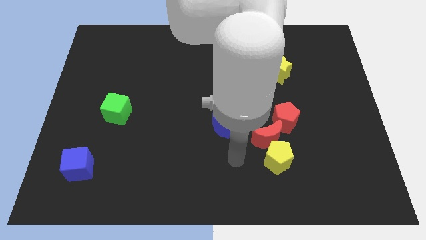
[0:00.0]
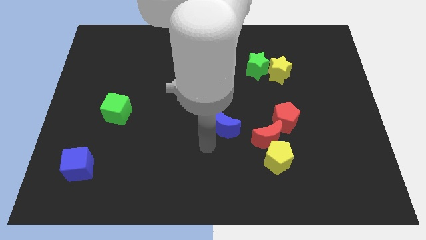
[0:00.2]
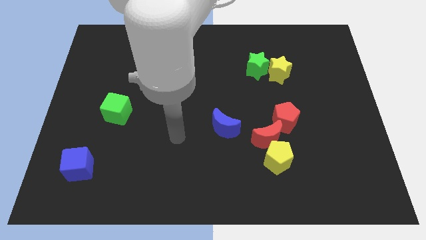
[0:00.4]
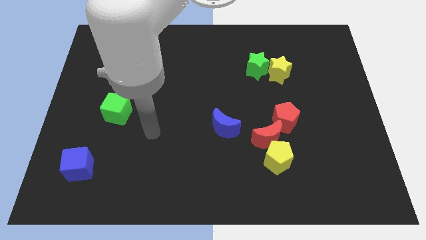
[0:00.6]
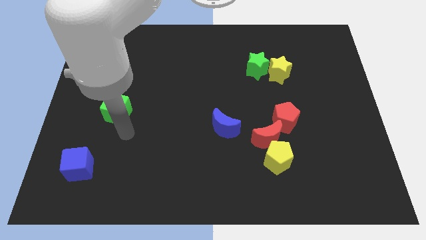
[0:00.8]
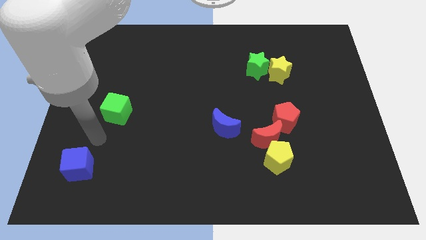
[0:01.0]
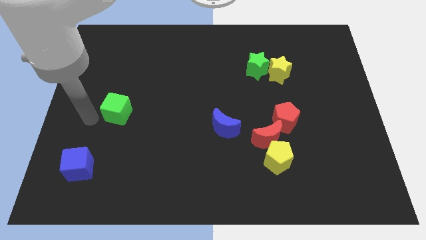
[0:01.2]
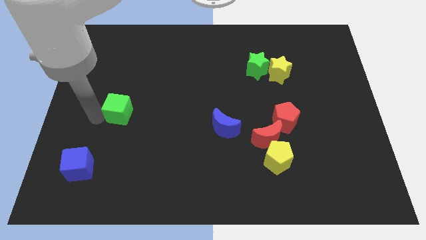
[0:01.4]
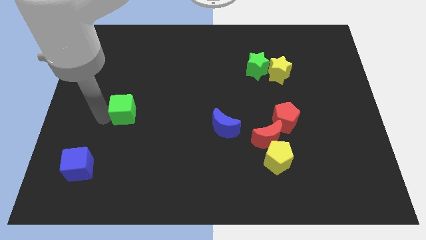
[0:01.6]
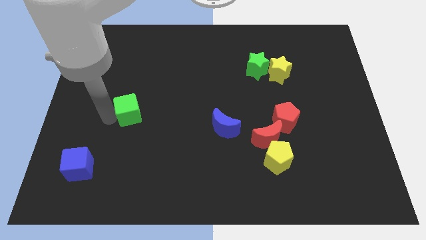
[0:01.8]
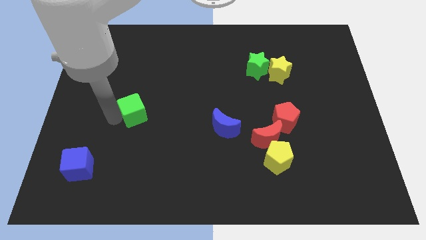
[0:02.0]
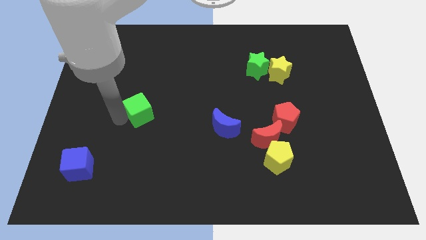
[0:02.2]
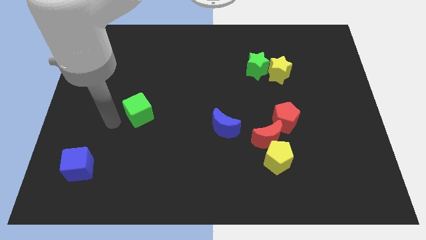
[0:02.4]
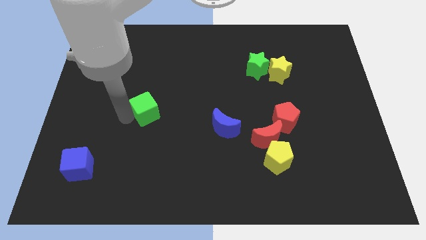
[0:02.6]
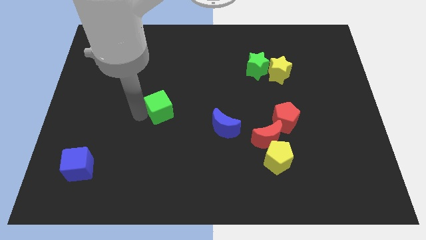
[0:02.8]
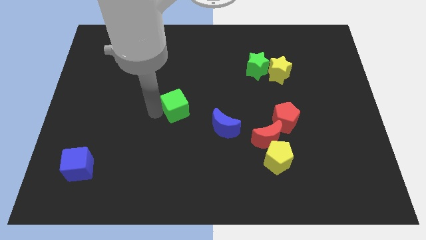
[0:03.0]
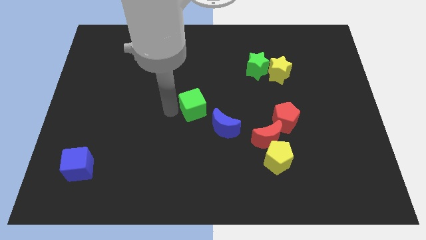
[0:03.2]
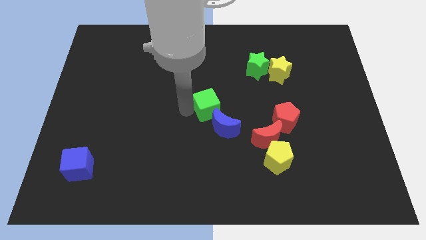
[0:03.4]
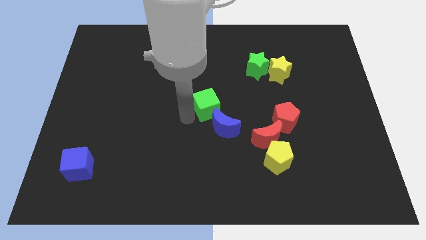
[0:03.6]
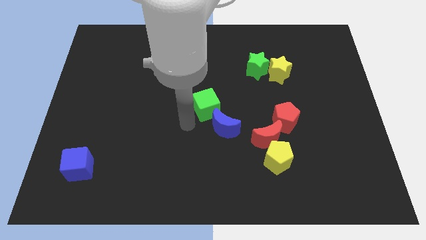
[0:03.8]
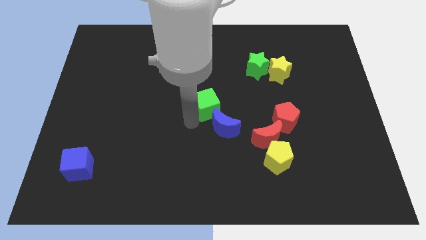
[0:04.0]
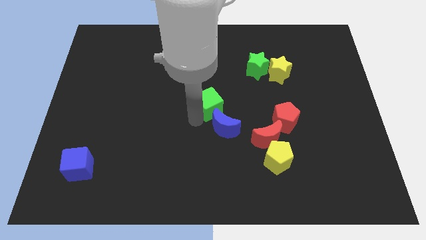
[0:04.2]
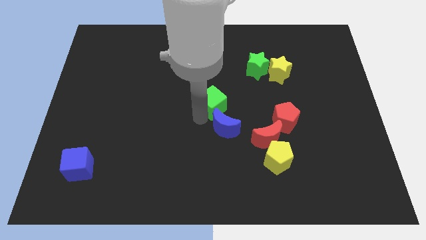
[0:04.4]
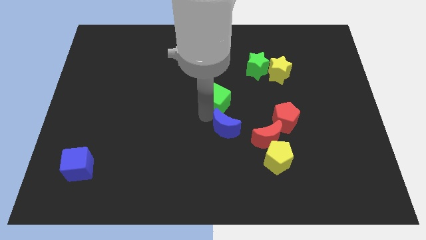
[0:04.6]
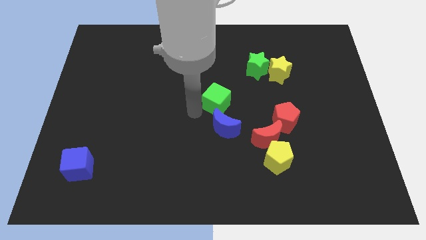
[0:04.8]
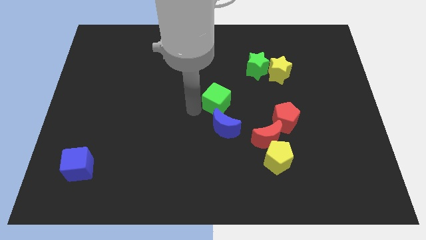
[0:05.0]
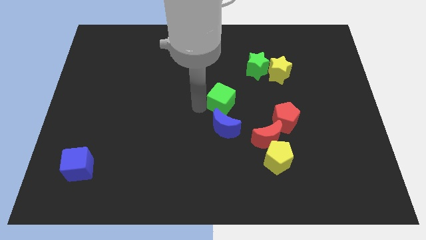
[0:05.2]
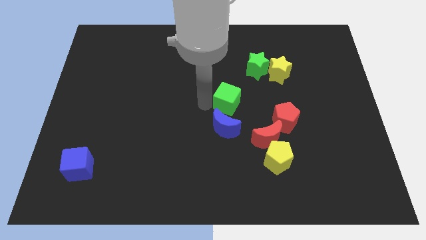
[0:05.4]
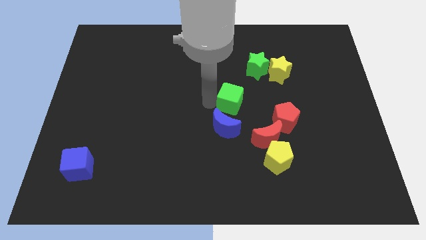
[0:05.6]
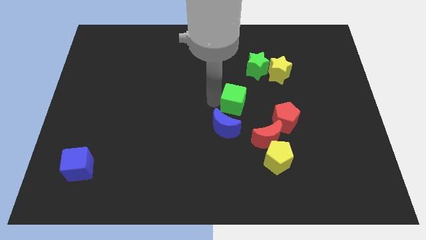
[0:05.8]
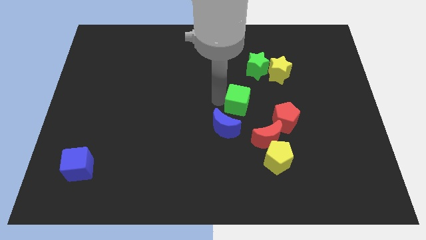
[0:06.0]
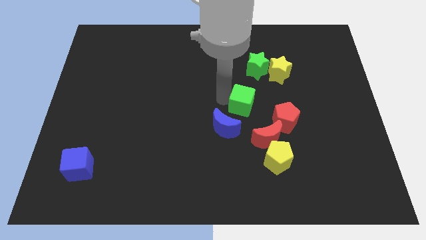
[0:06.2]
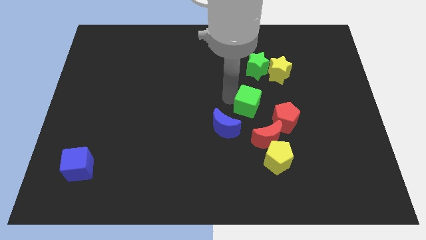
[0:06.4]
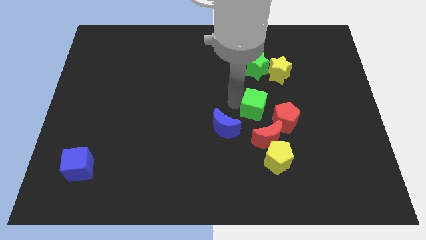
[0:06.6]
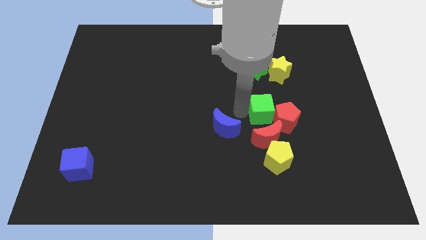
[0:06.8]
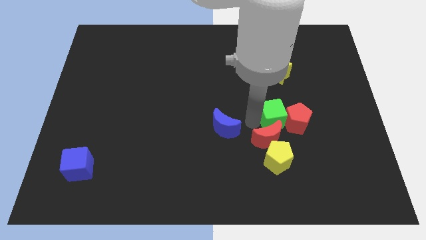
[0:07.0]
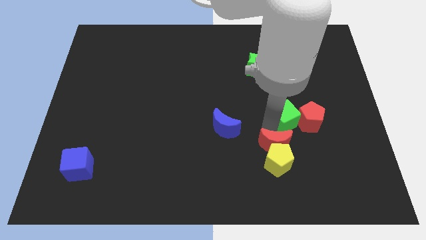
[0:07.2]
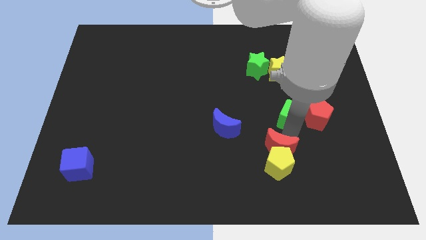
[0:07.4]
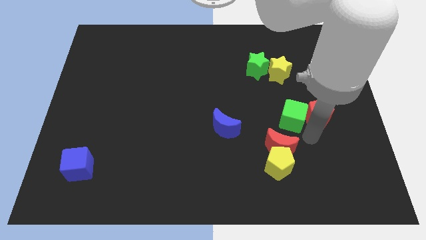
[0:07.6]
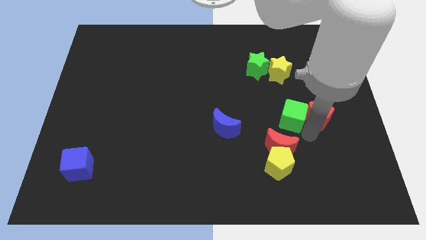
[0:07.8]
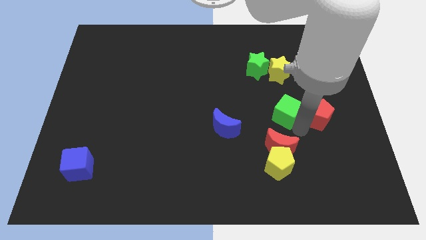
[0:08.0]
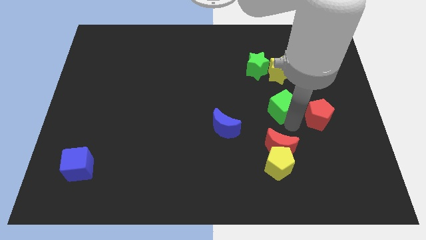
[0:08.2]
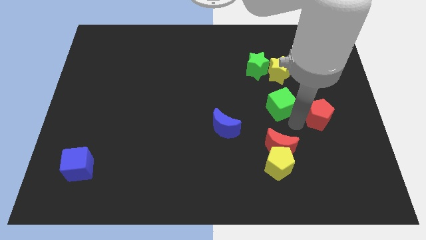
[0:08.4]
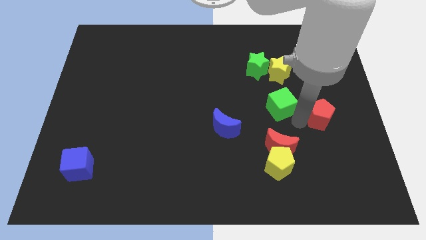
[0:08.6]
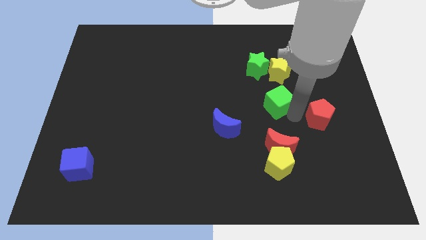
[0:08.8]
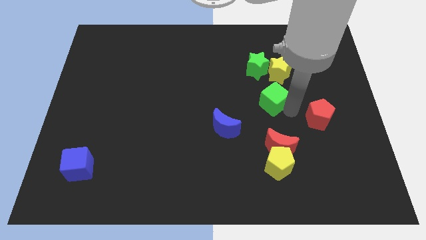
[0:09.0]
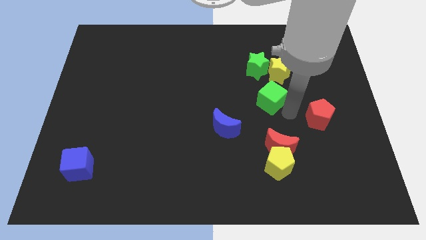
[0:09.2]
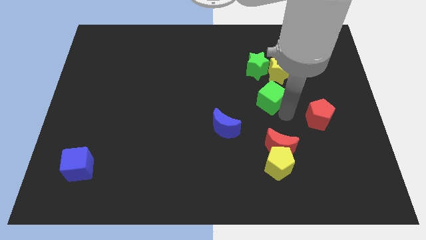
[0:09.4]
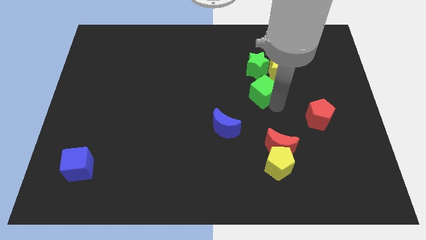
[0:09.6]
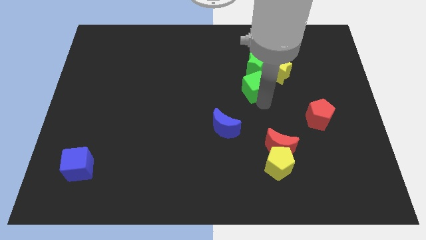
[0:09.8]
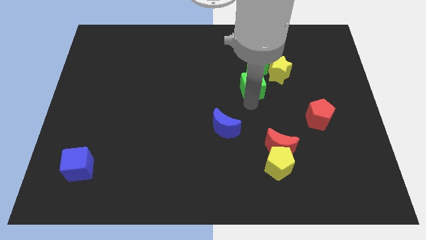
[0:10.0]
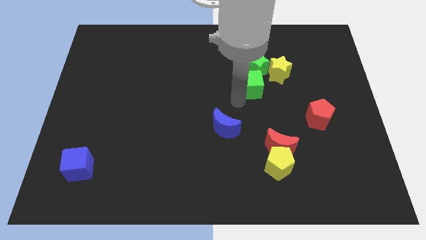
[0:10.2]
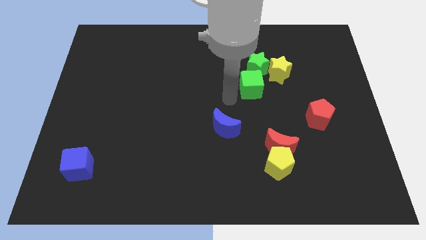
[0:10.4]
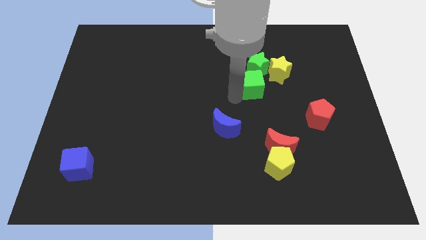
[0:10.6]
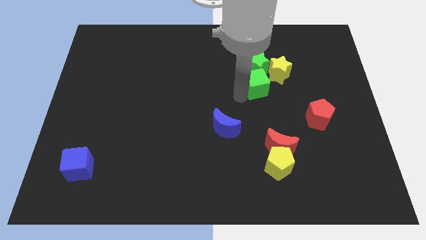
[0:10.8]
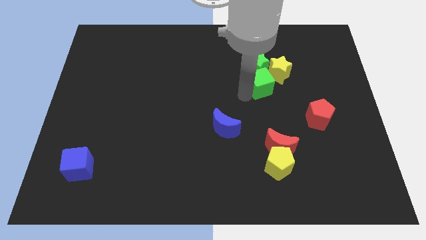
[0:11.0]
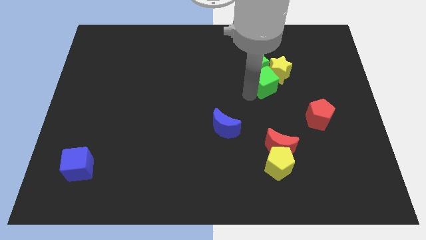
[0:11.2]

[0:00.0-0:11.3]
move the green cube close to the yellow star

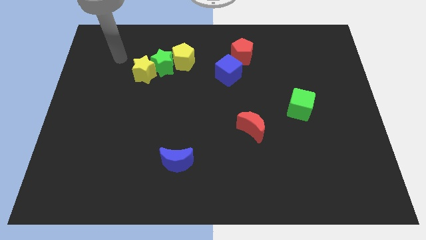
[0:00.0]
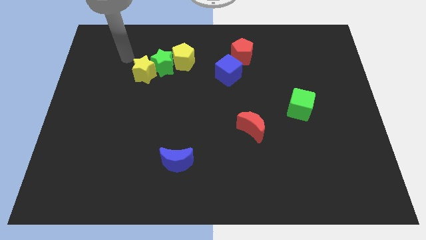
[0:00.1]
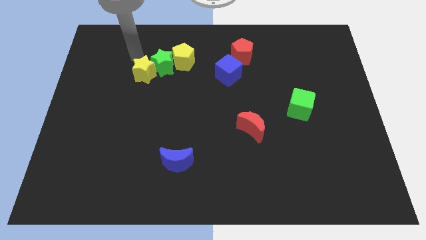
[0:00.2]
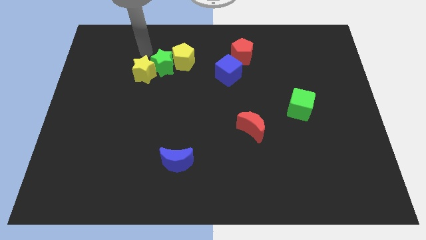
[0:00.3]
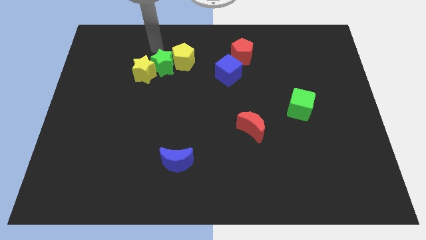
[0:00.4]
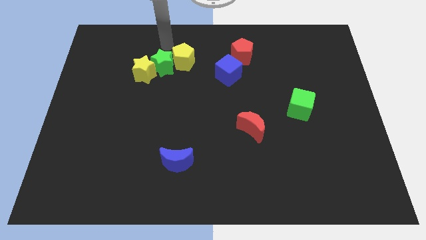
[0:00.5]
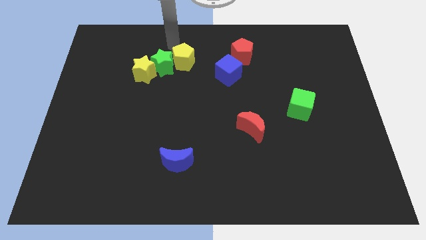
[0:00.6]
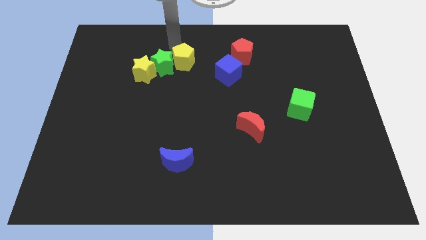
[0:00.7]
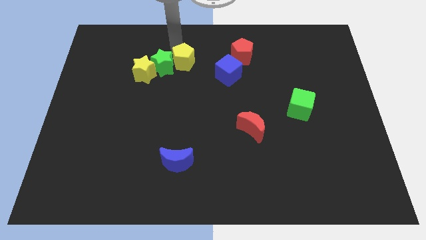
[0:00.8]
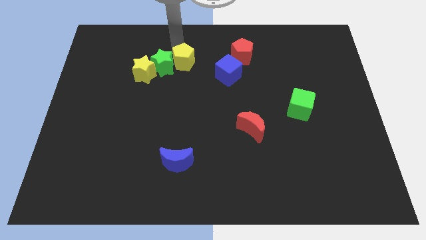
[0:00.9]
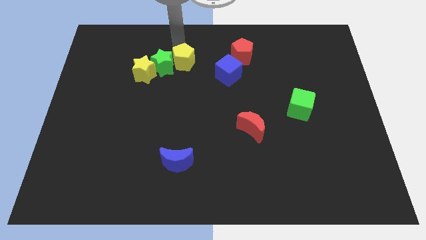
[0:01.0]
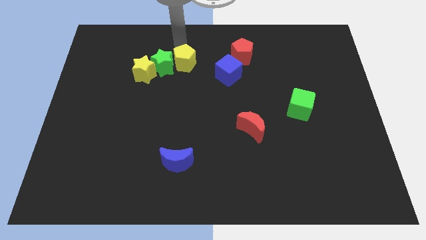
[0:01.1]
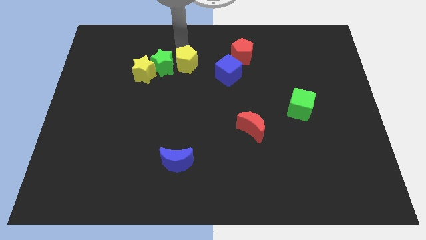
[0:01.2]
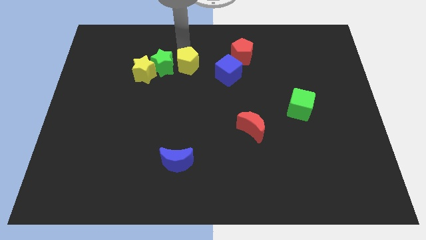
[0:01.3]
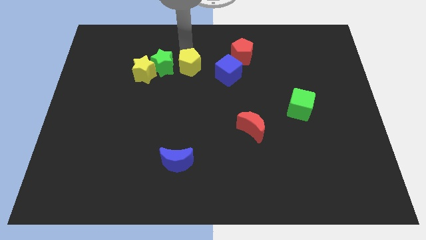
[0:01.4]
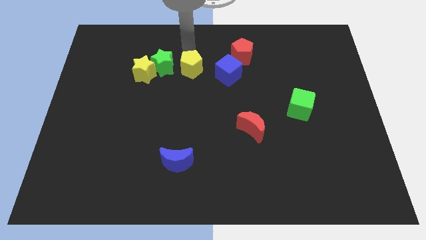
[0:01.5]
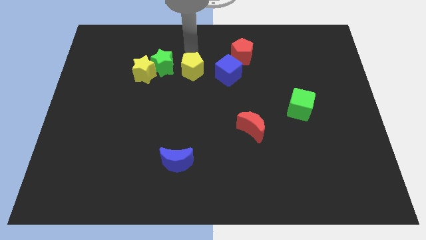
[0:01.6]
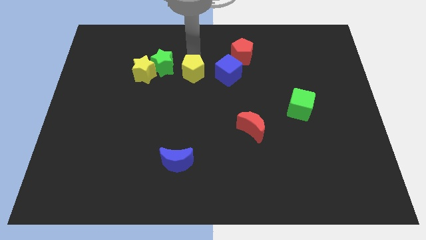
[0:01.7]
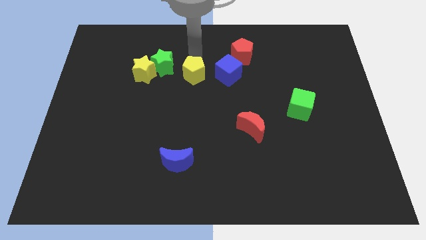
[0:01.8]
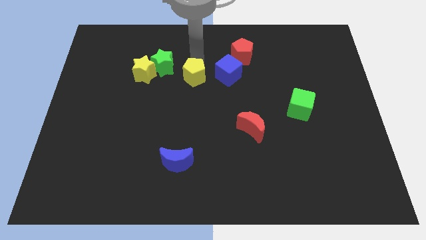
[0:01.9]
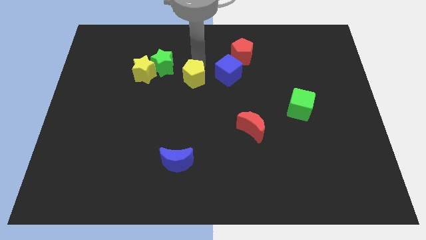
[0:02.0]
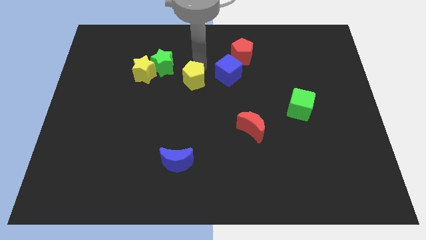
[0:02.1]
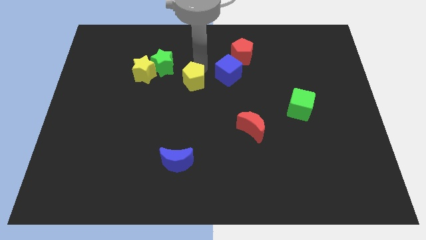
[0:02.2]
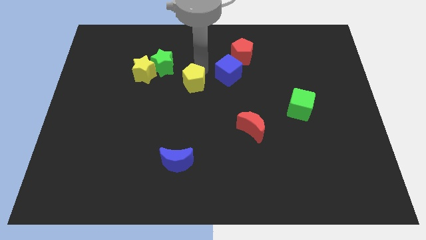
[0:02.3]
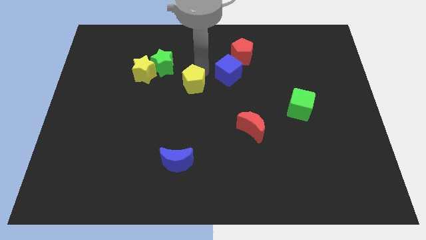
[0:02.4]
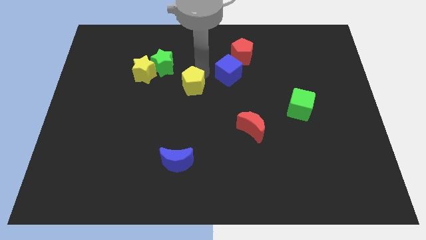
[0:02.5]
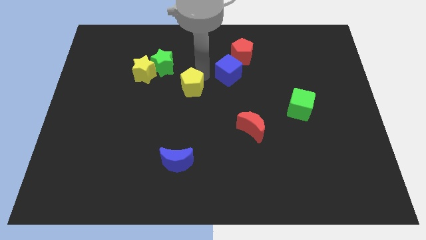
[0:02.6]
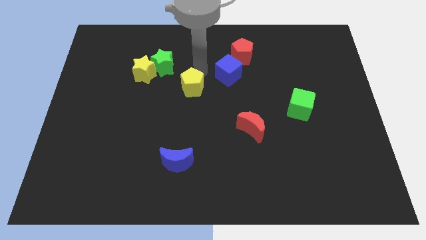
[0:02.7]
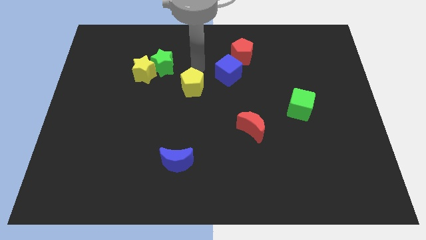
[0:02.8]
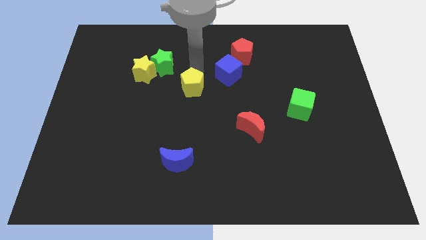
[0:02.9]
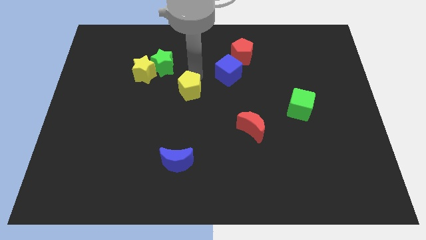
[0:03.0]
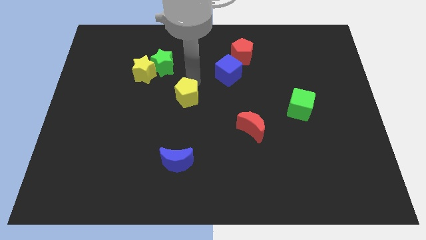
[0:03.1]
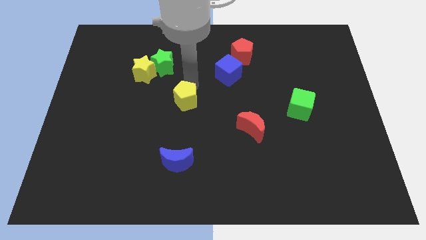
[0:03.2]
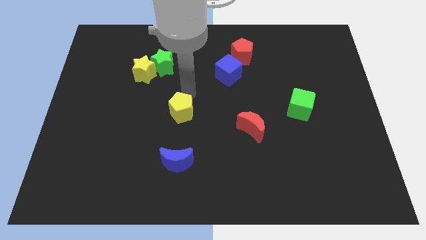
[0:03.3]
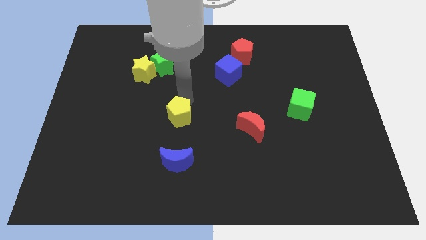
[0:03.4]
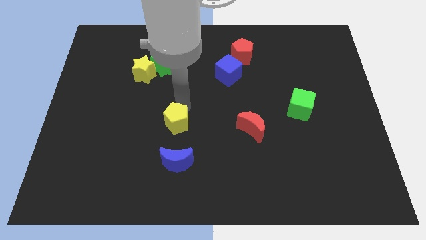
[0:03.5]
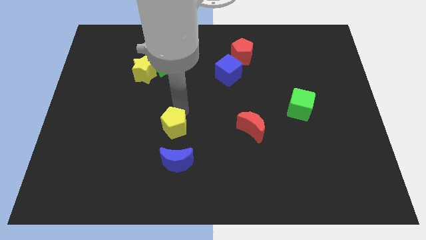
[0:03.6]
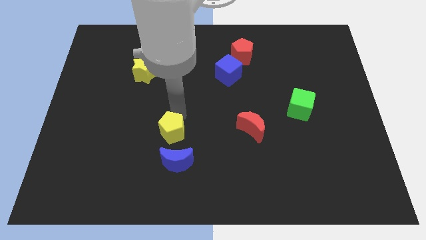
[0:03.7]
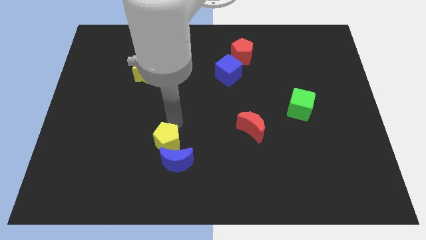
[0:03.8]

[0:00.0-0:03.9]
put the yellow pentagon next to the blue moon
